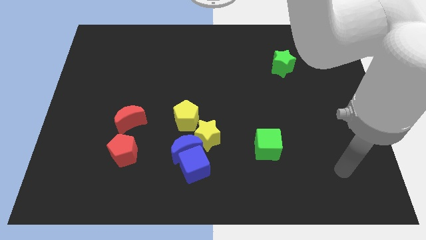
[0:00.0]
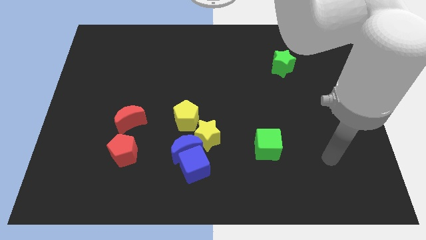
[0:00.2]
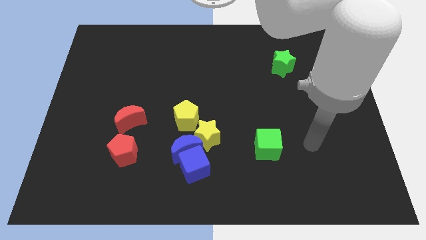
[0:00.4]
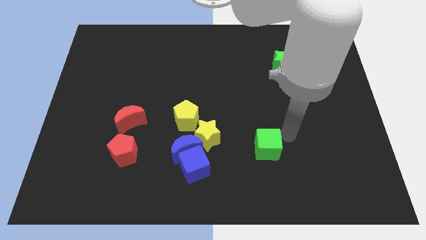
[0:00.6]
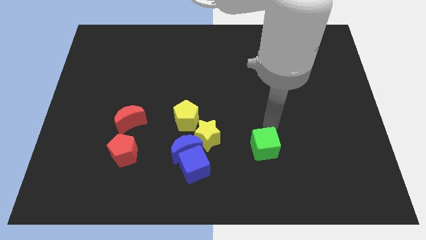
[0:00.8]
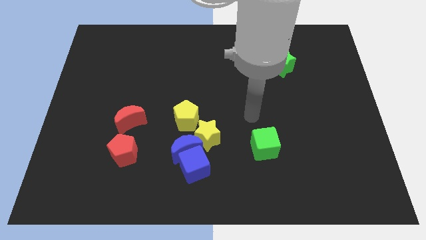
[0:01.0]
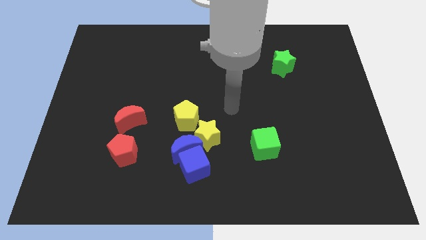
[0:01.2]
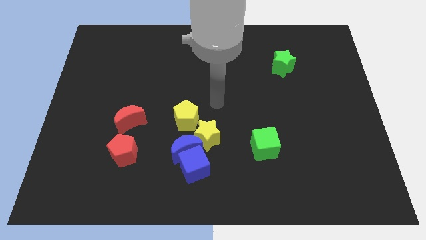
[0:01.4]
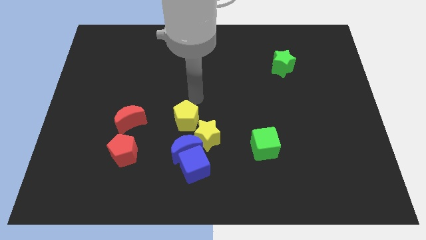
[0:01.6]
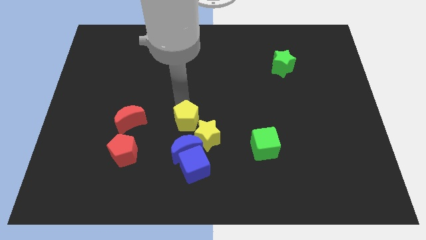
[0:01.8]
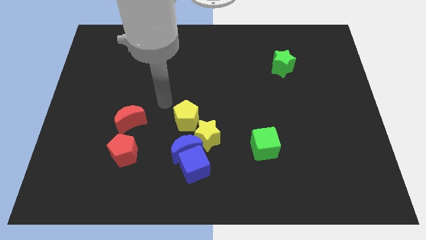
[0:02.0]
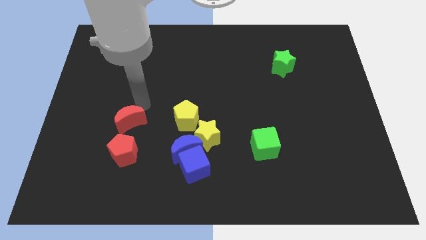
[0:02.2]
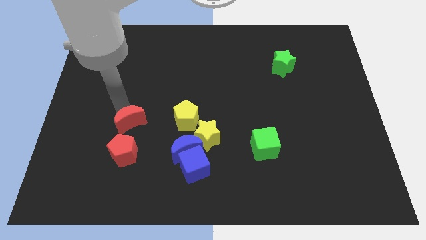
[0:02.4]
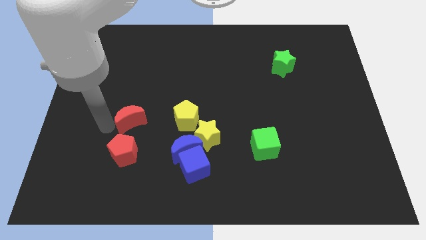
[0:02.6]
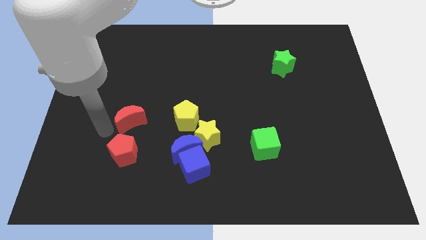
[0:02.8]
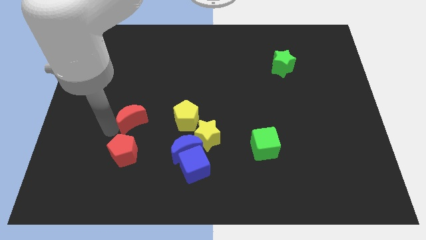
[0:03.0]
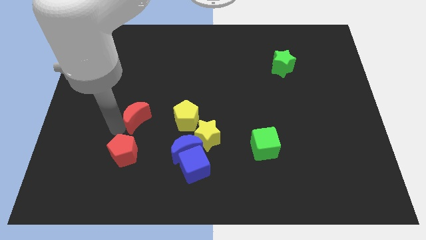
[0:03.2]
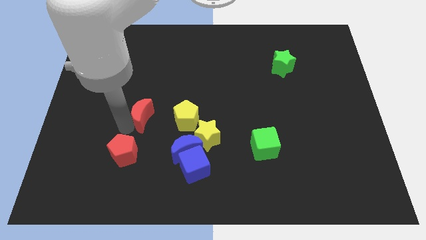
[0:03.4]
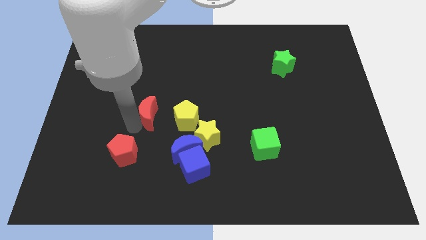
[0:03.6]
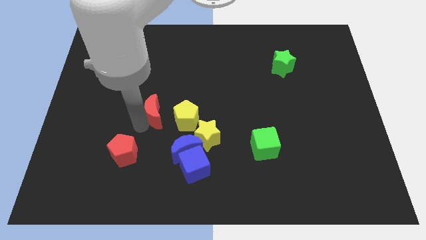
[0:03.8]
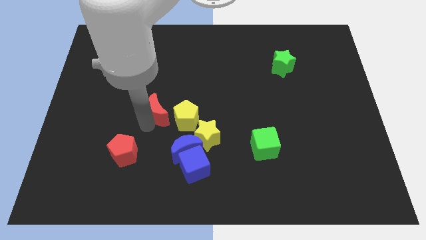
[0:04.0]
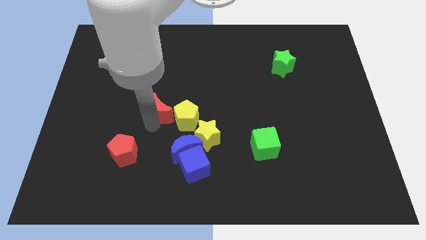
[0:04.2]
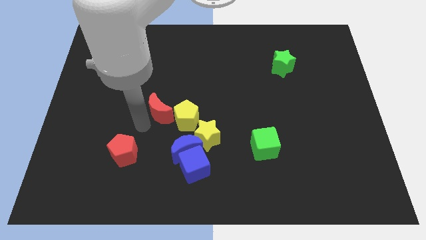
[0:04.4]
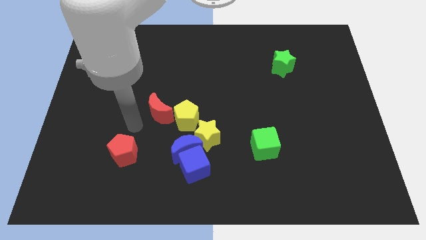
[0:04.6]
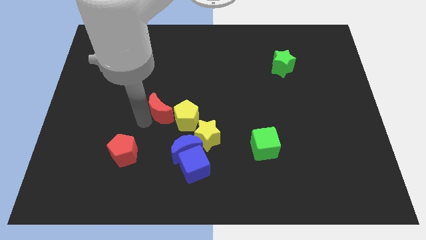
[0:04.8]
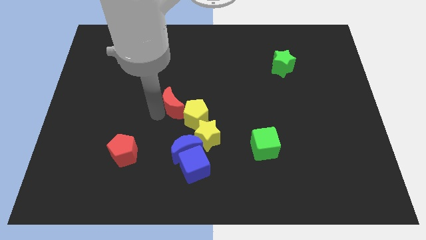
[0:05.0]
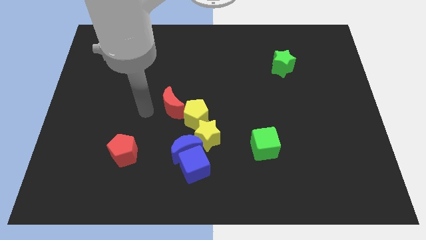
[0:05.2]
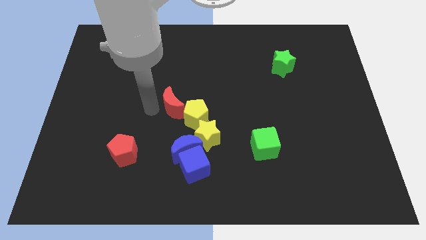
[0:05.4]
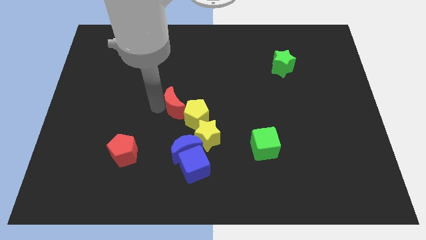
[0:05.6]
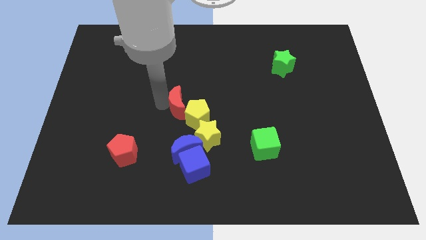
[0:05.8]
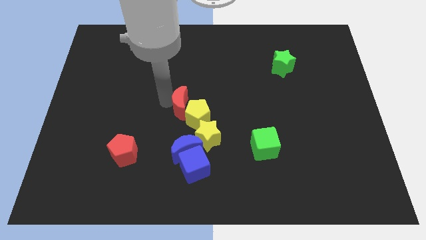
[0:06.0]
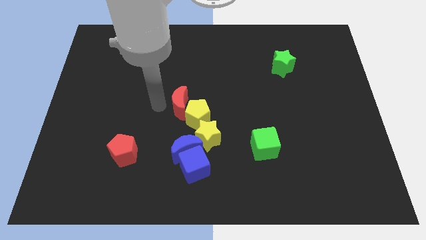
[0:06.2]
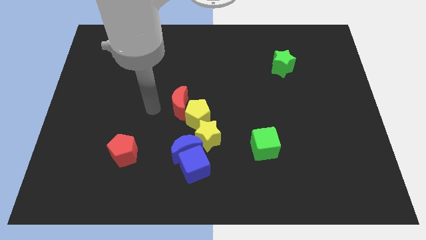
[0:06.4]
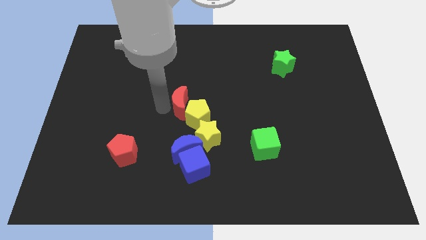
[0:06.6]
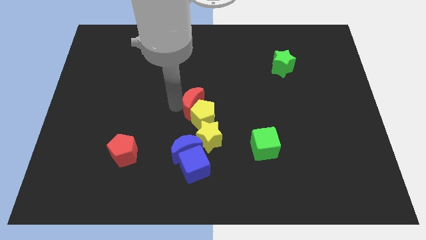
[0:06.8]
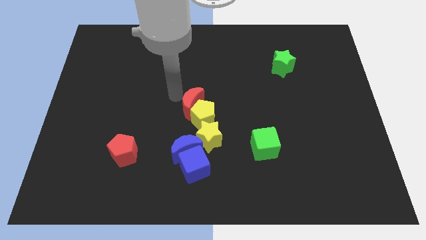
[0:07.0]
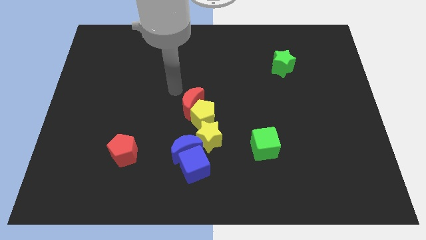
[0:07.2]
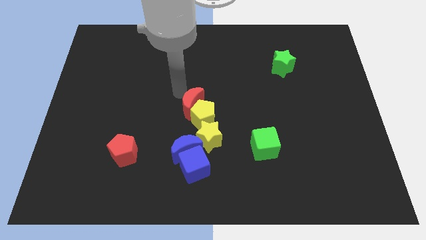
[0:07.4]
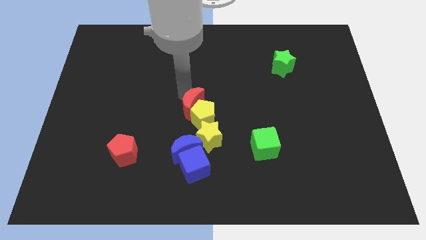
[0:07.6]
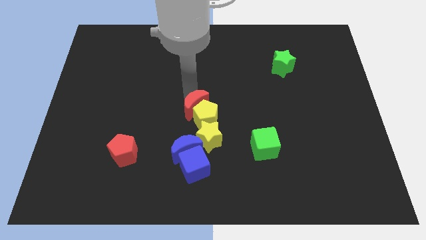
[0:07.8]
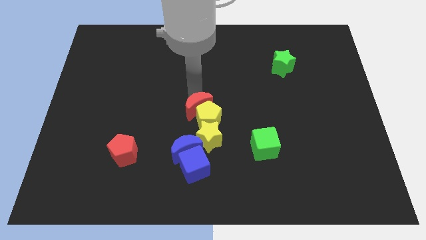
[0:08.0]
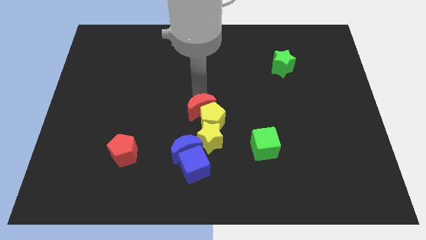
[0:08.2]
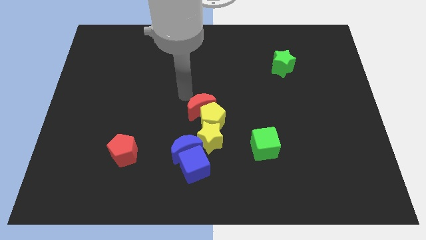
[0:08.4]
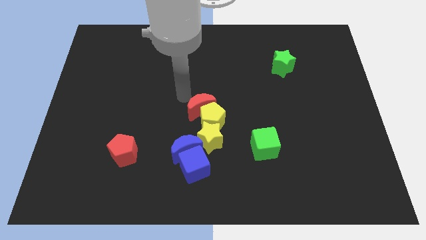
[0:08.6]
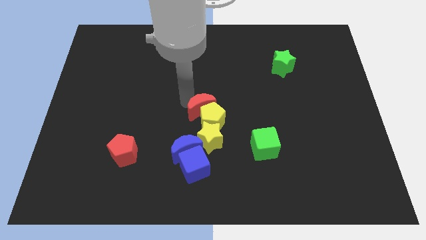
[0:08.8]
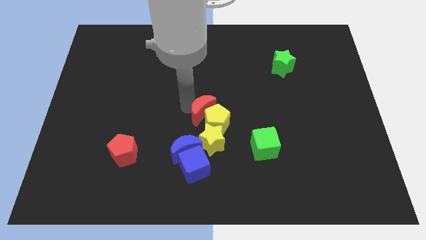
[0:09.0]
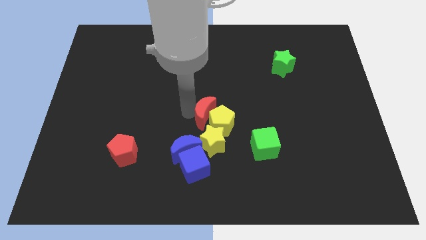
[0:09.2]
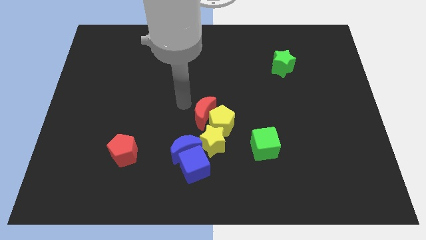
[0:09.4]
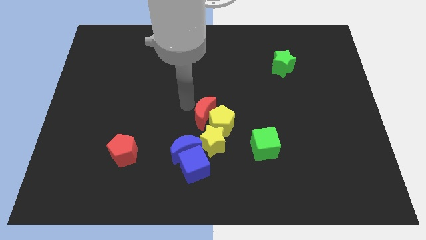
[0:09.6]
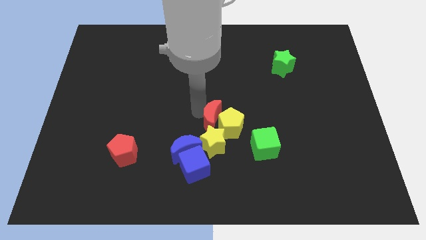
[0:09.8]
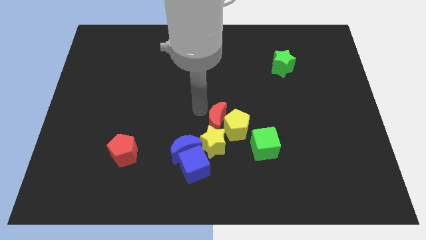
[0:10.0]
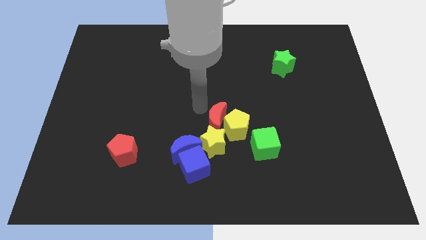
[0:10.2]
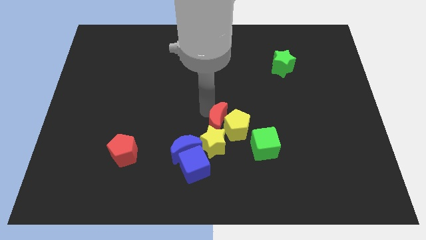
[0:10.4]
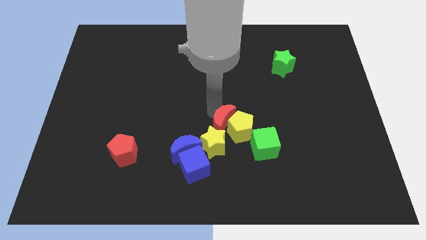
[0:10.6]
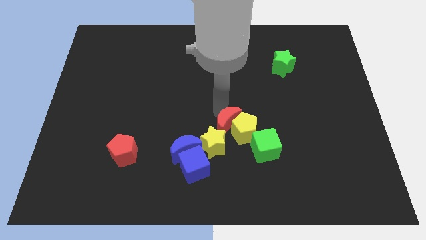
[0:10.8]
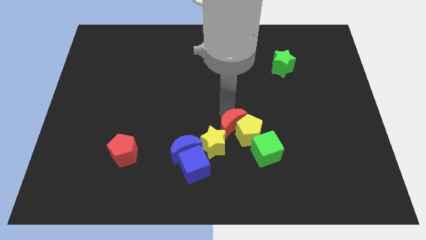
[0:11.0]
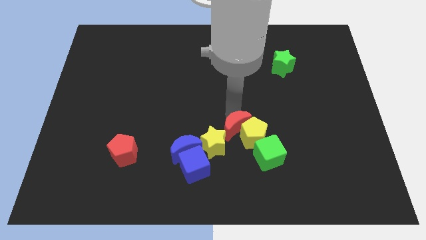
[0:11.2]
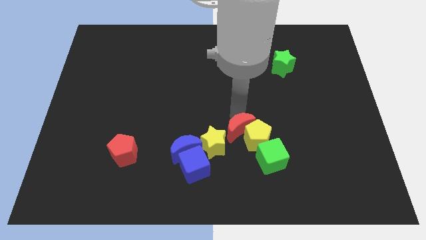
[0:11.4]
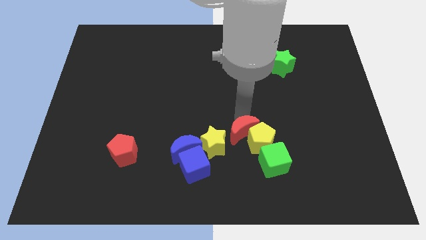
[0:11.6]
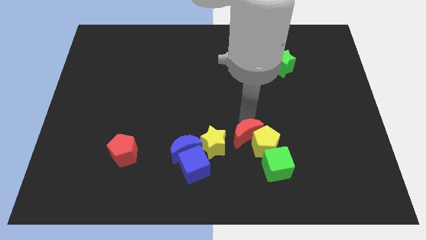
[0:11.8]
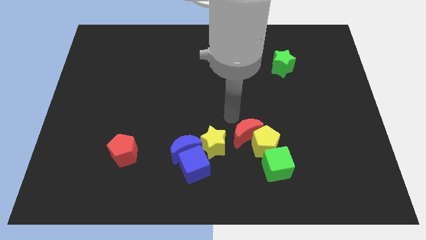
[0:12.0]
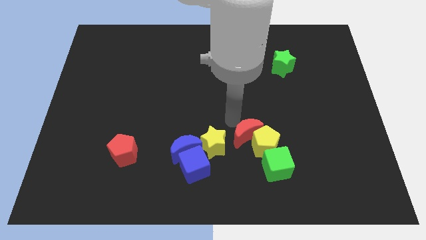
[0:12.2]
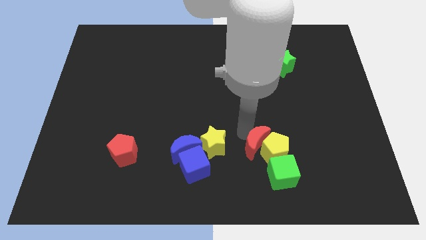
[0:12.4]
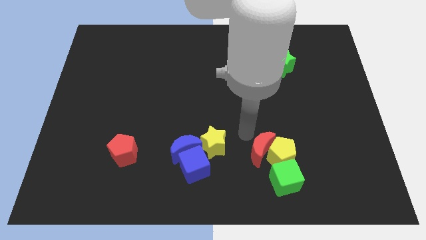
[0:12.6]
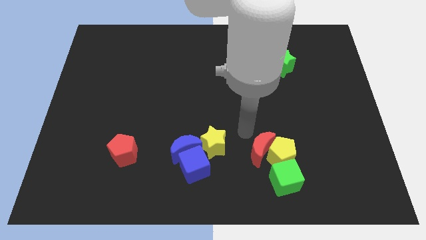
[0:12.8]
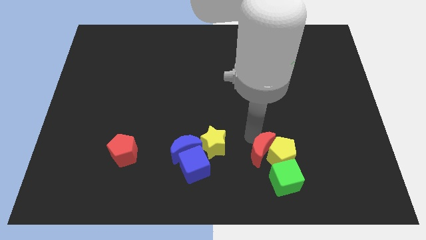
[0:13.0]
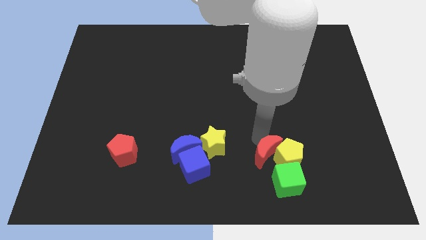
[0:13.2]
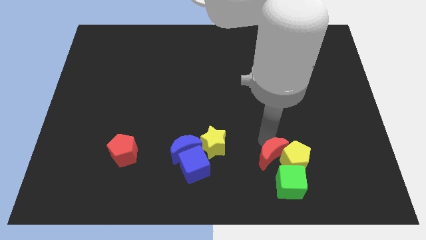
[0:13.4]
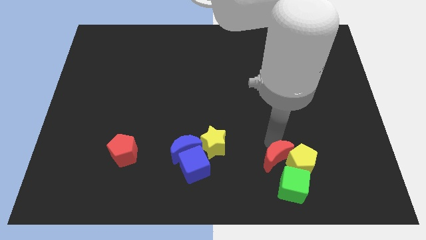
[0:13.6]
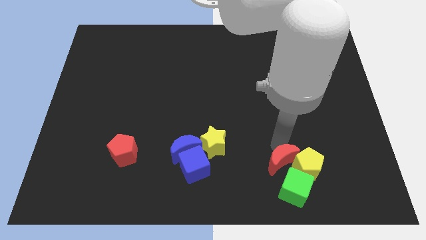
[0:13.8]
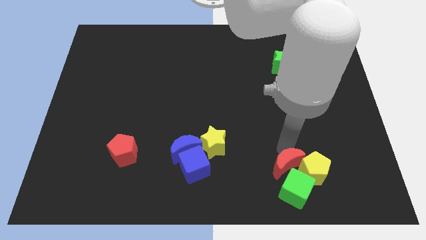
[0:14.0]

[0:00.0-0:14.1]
slide the red moon towards the green cube
